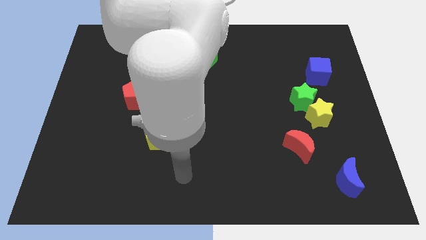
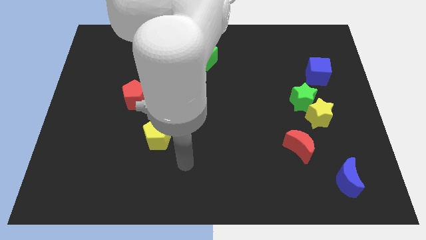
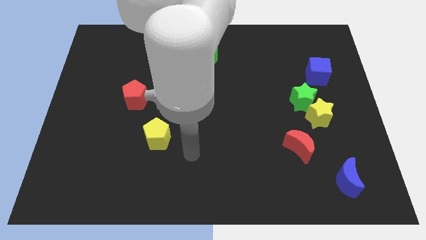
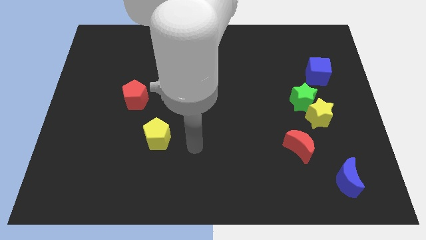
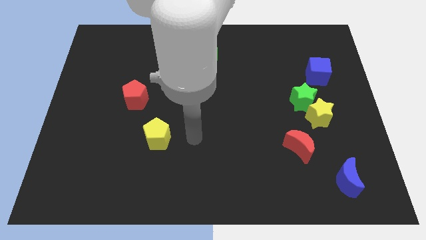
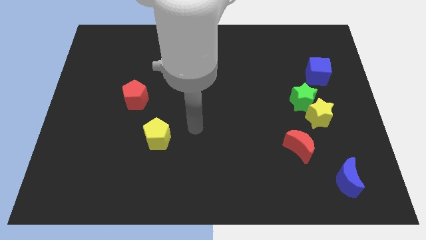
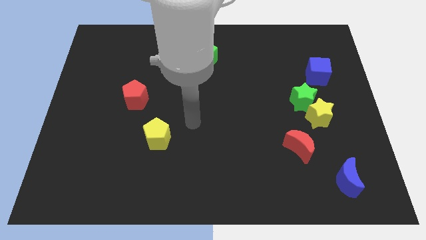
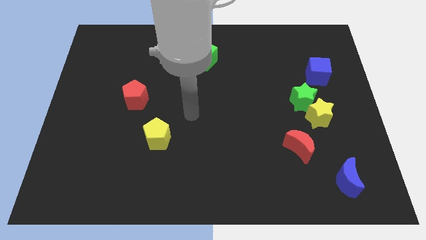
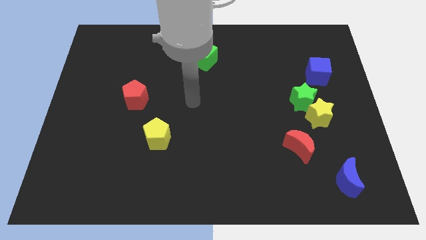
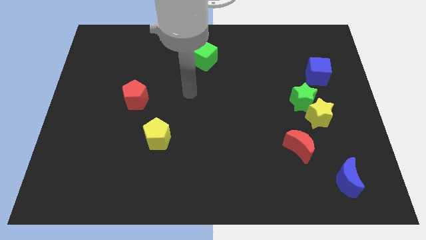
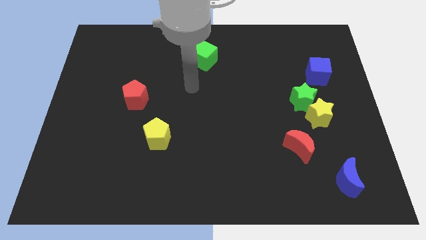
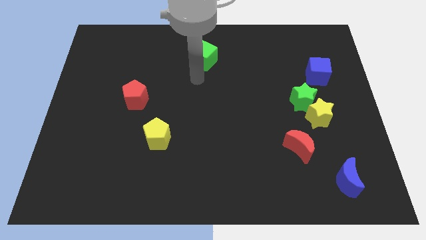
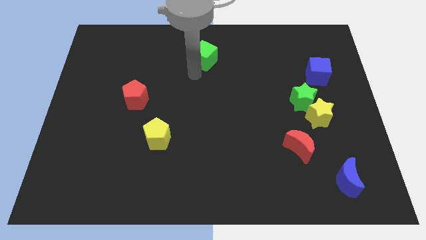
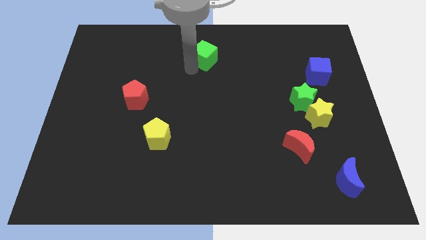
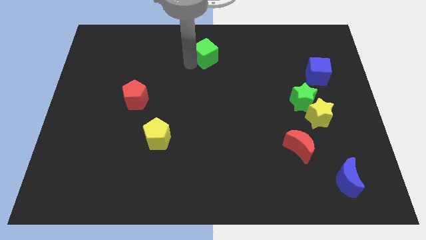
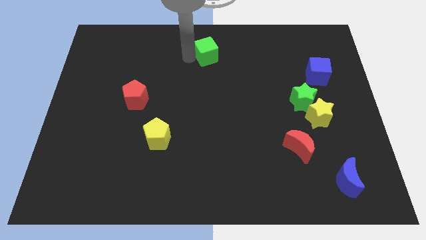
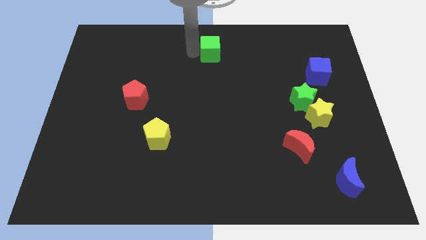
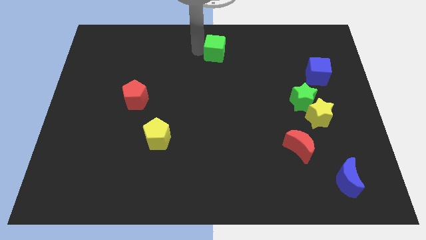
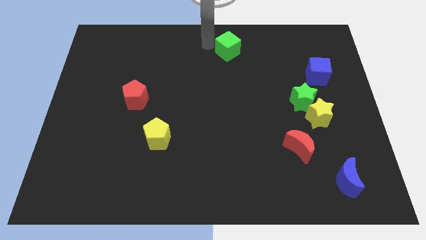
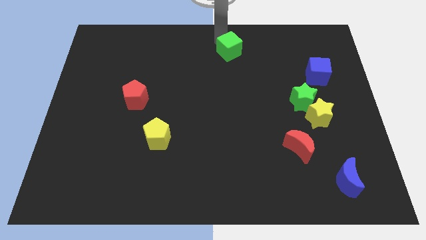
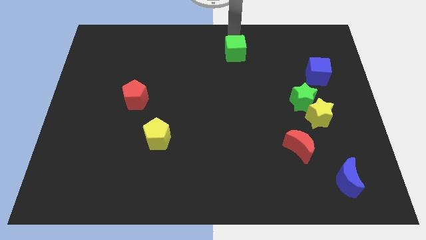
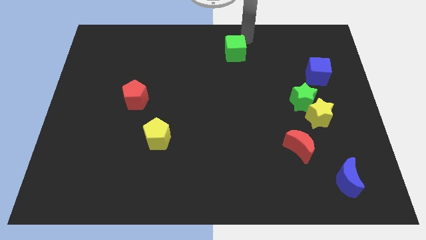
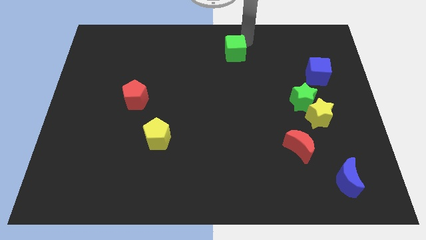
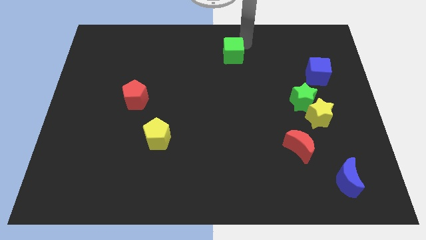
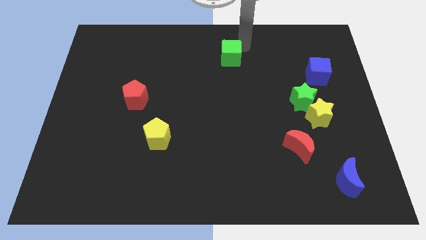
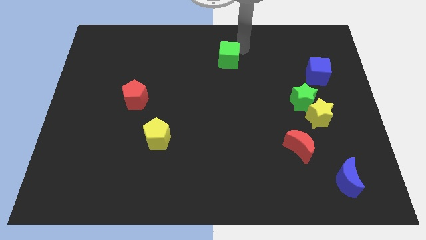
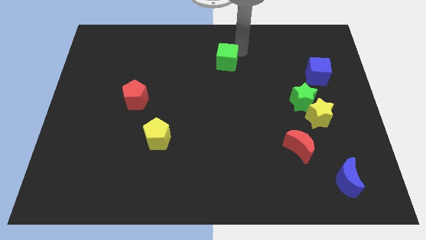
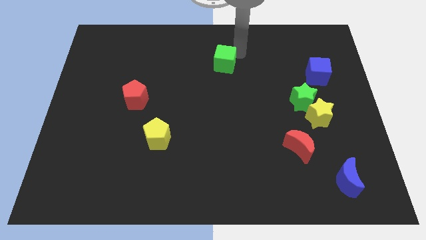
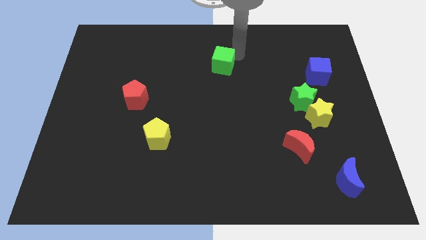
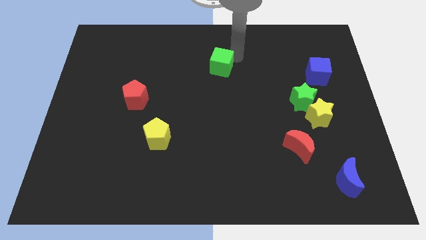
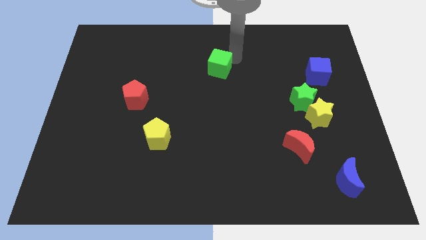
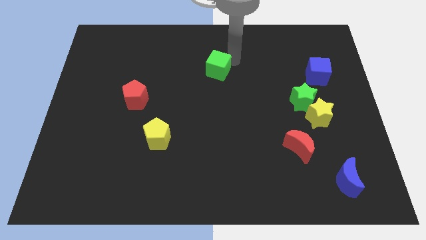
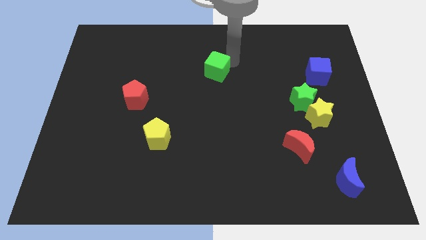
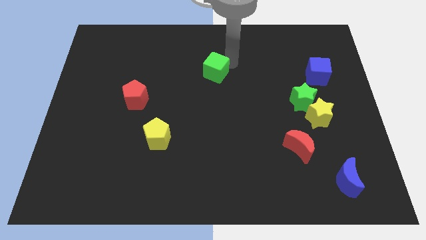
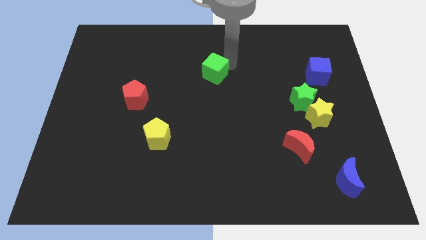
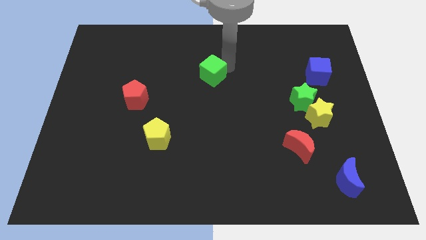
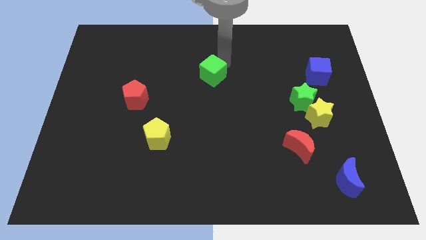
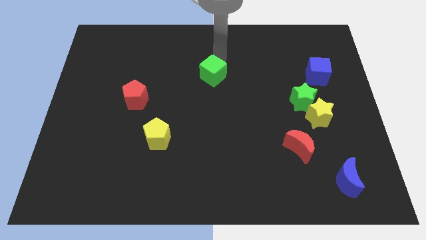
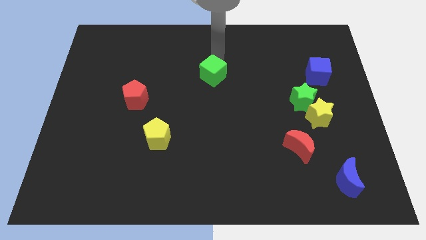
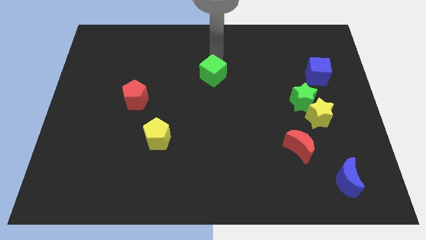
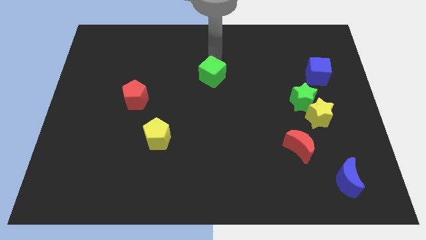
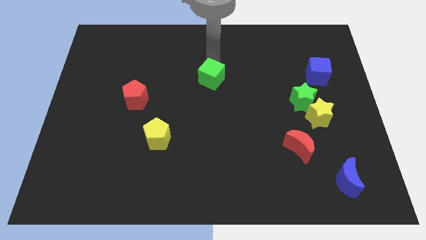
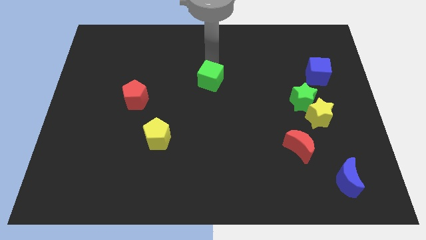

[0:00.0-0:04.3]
slightly push the green cube down

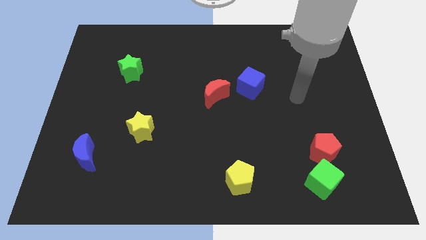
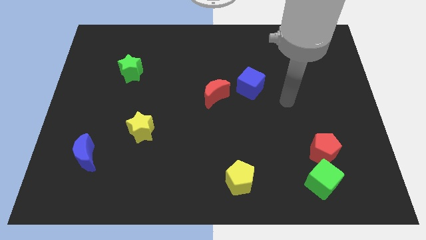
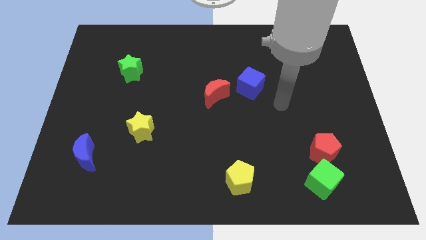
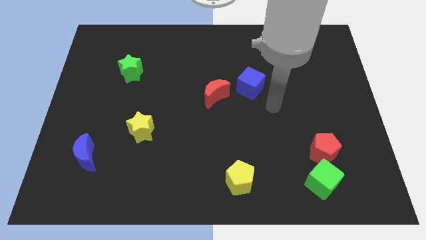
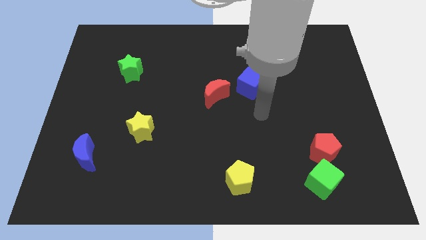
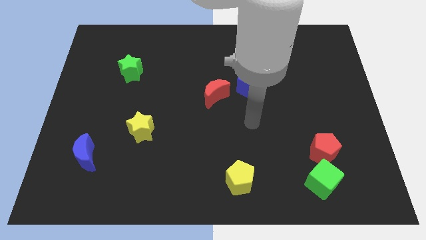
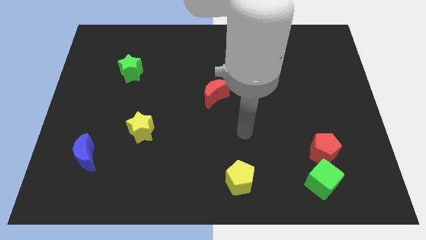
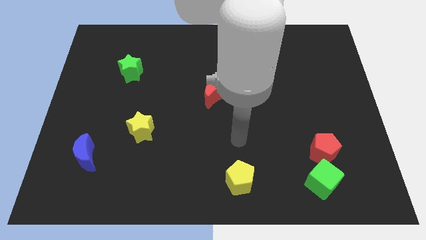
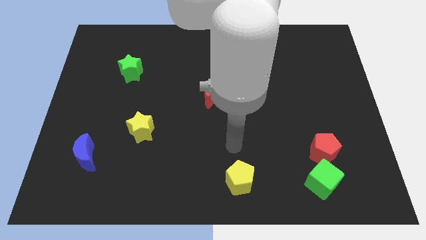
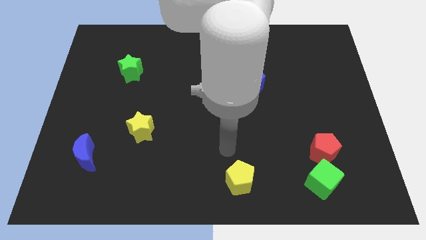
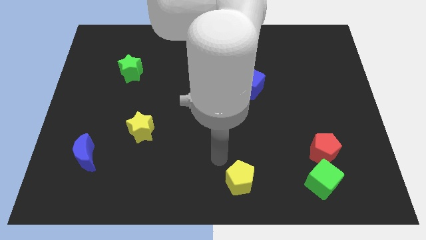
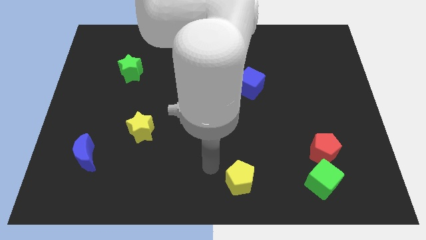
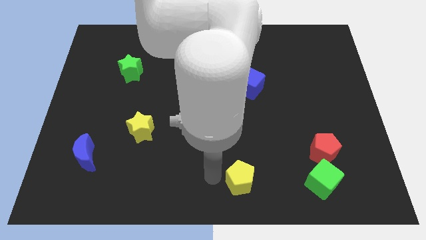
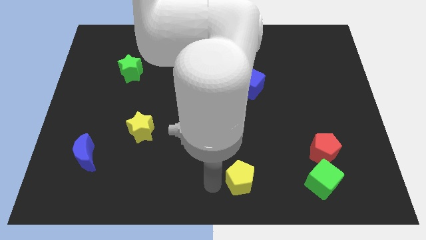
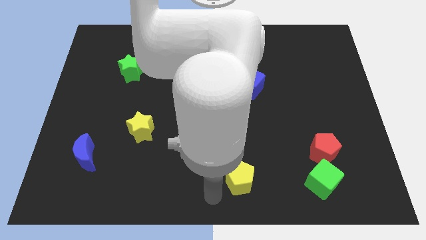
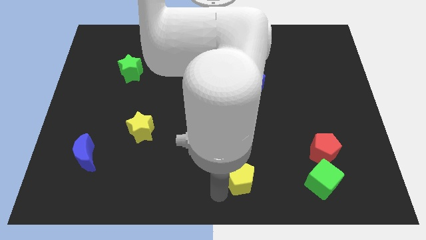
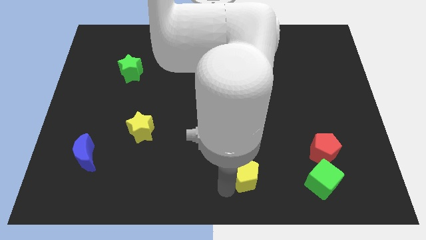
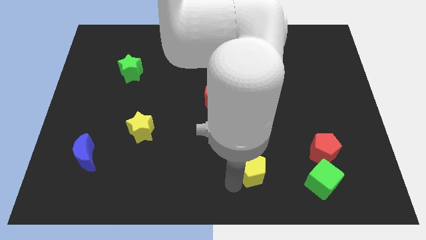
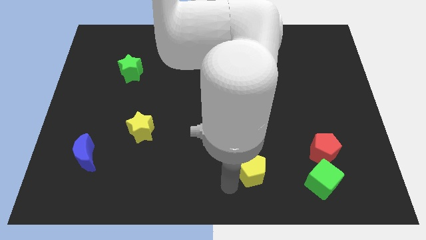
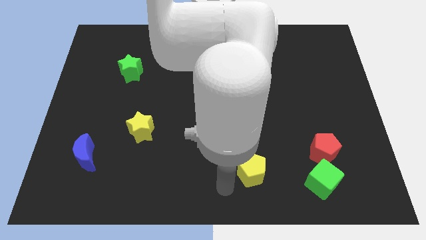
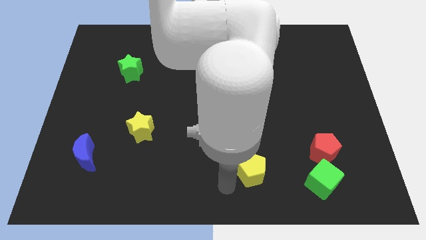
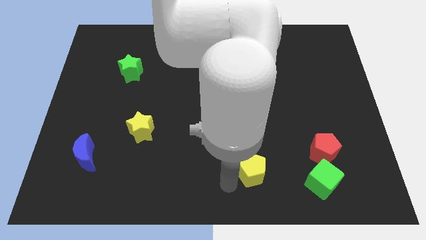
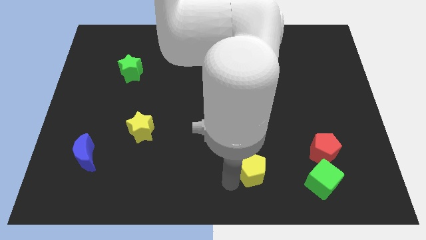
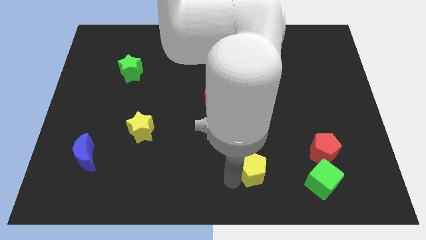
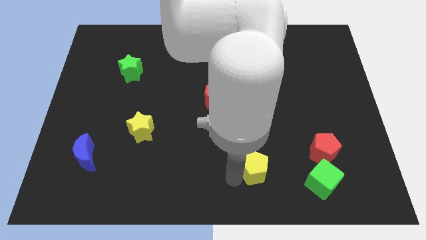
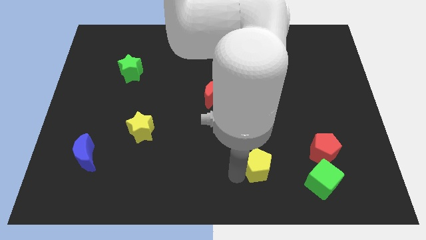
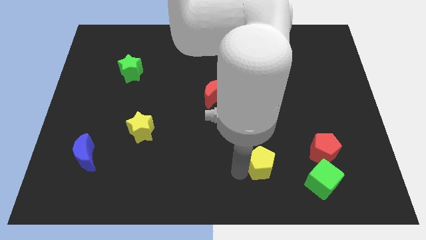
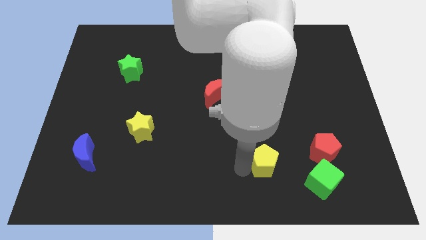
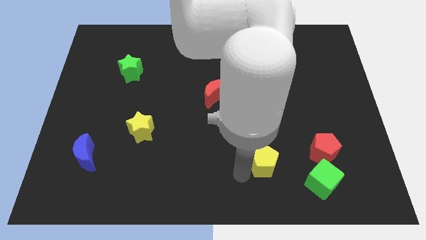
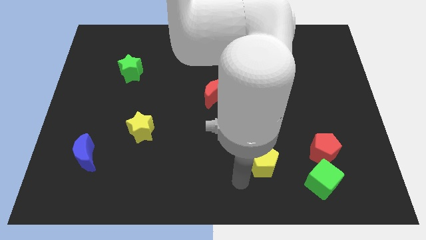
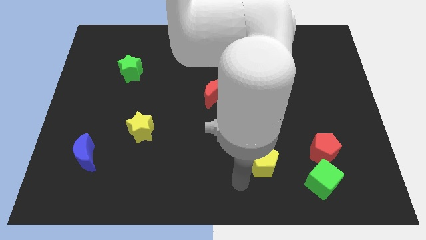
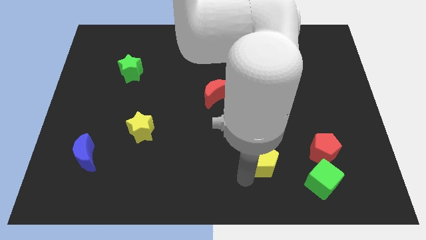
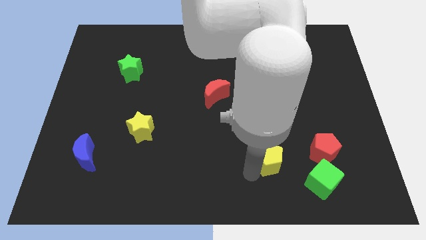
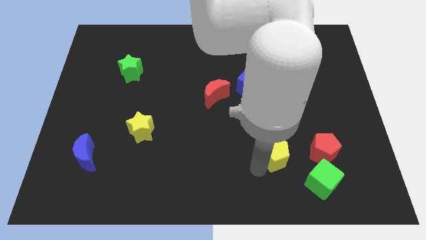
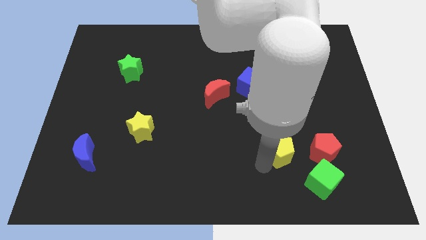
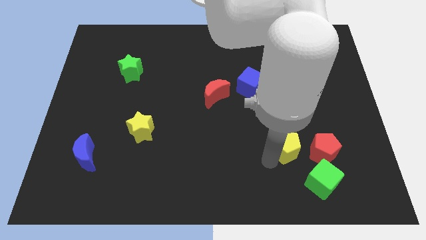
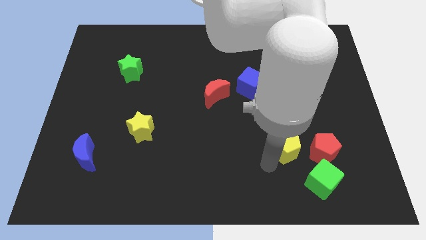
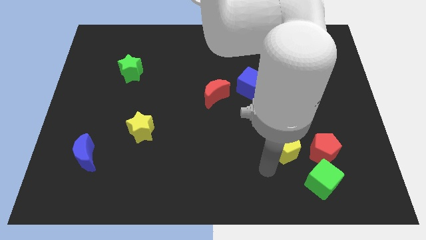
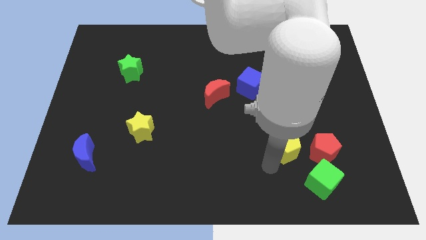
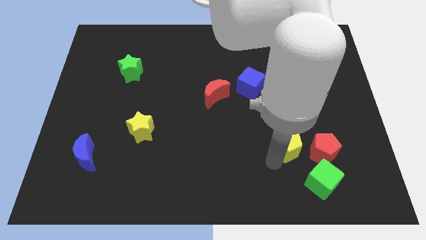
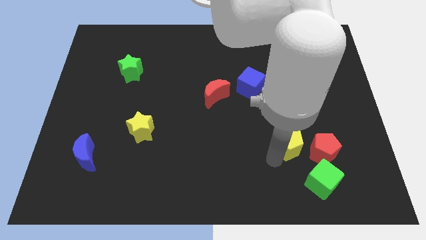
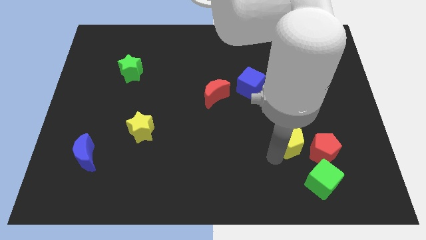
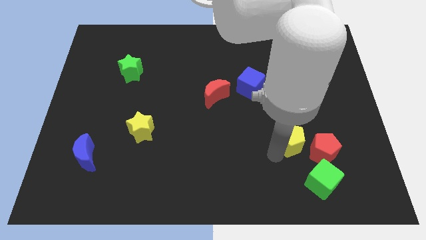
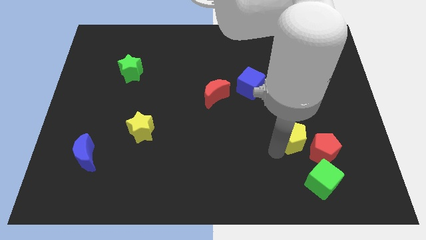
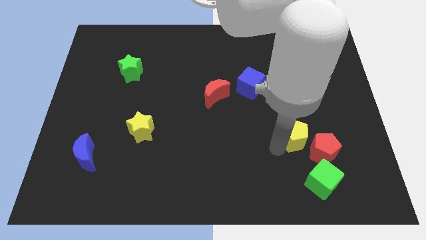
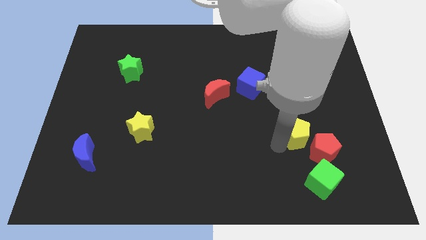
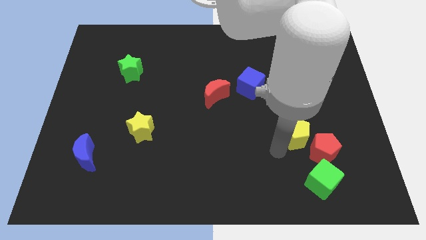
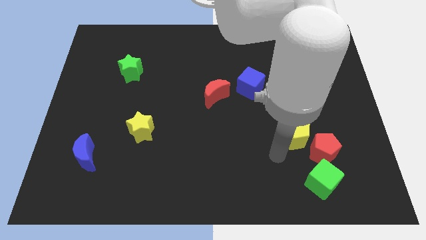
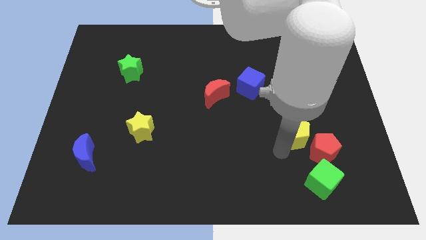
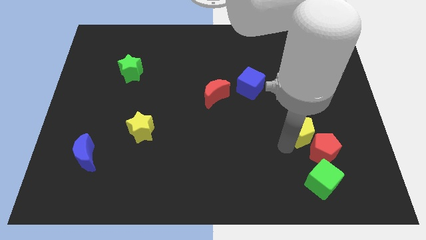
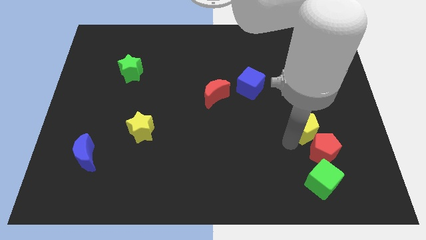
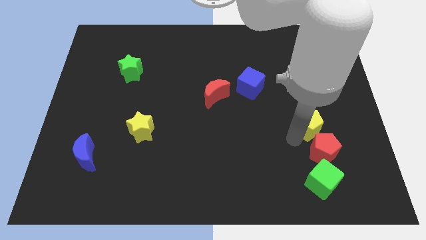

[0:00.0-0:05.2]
slide the yellow pentagon upwards and right diagonally
